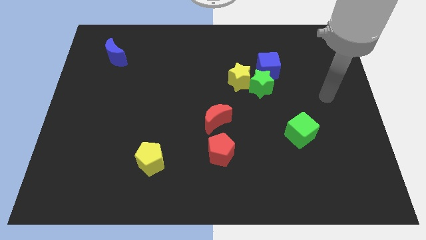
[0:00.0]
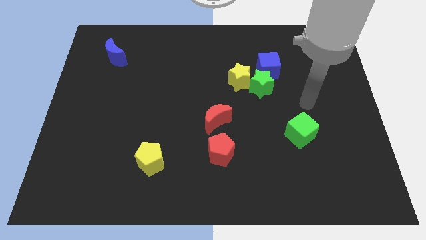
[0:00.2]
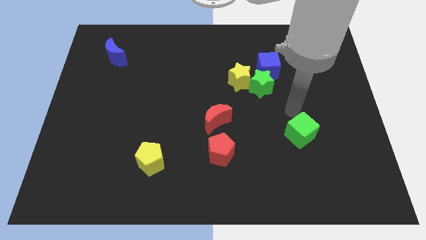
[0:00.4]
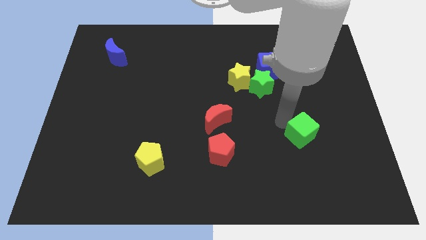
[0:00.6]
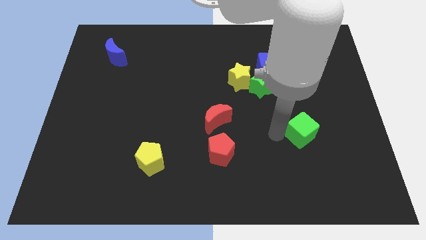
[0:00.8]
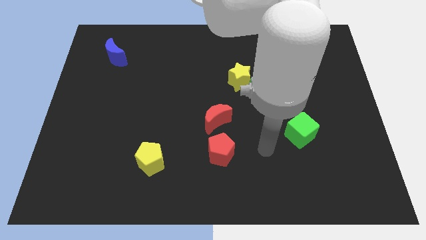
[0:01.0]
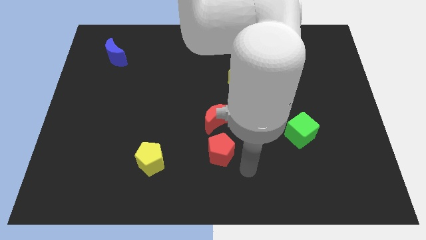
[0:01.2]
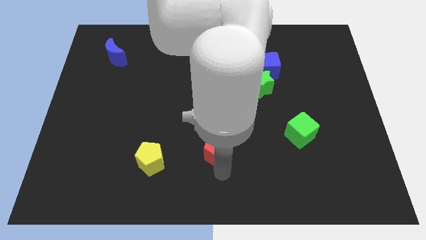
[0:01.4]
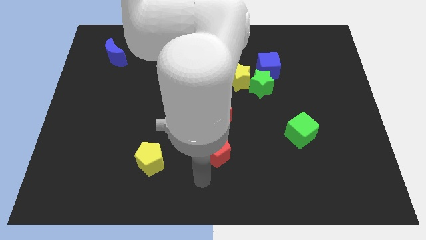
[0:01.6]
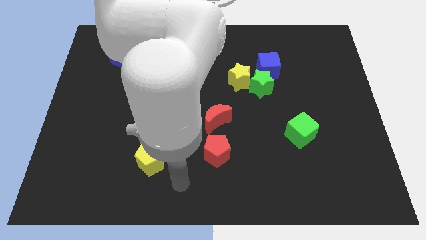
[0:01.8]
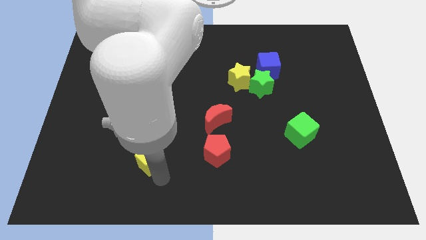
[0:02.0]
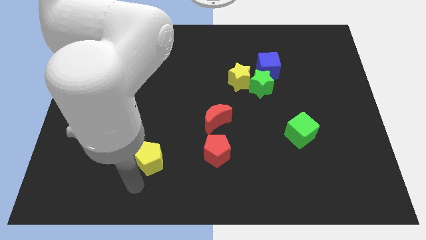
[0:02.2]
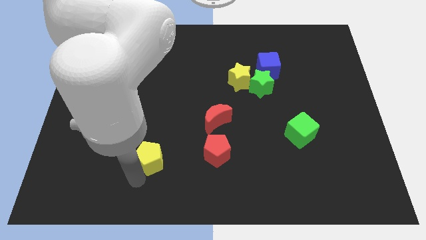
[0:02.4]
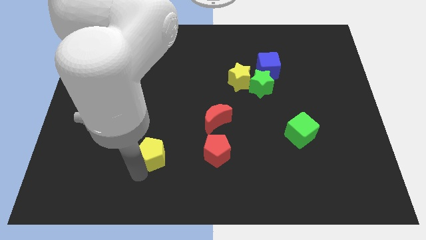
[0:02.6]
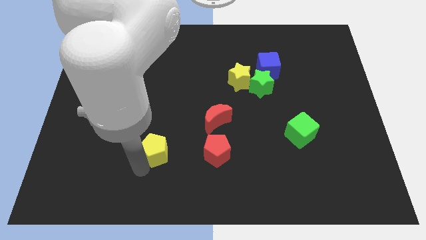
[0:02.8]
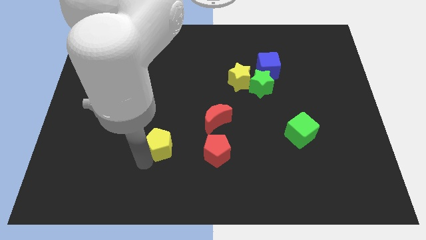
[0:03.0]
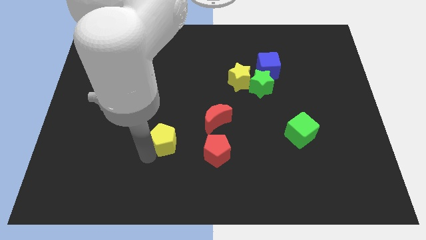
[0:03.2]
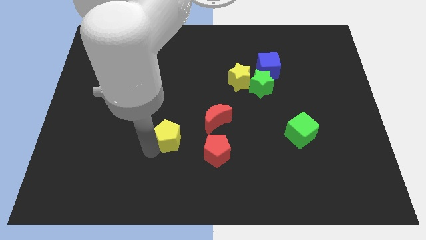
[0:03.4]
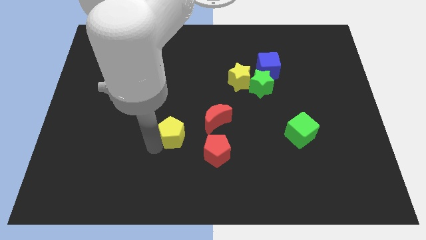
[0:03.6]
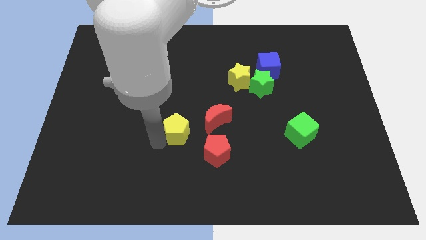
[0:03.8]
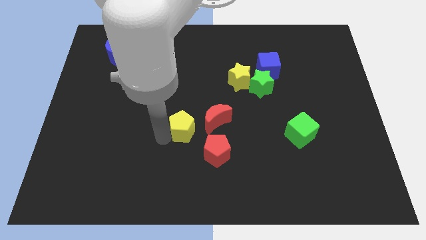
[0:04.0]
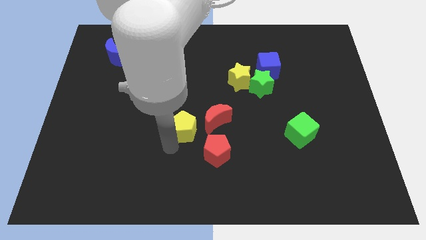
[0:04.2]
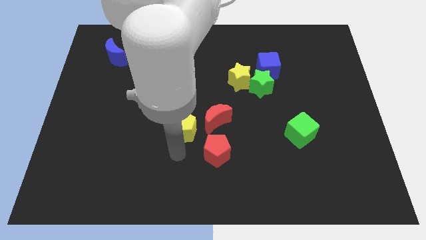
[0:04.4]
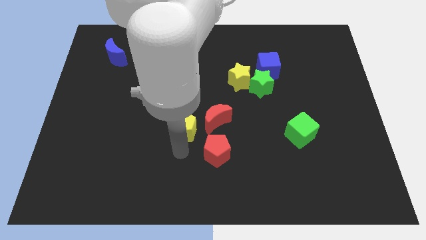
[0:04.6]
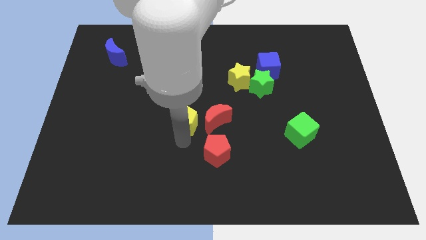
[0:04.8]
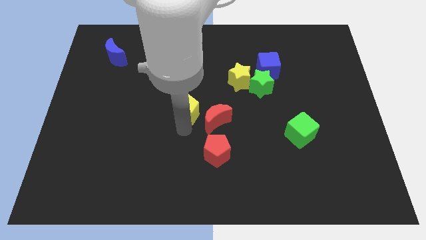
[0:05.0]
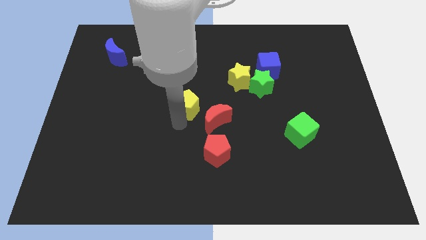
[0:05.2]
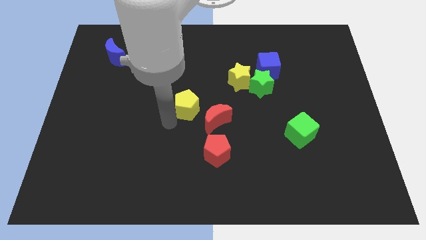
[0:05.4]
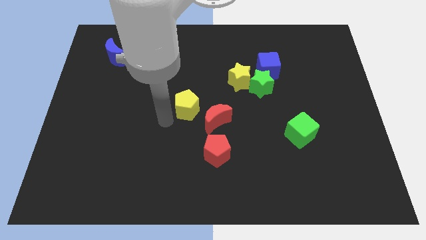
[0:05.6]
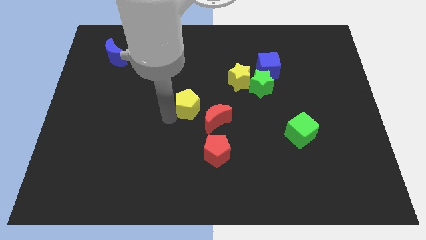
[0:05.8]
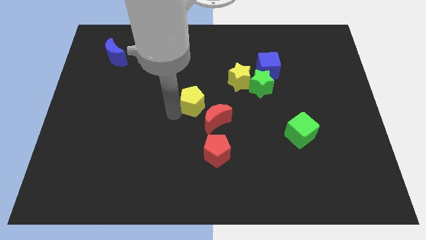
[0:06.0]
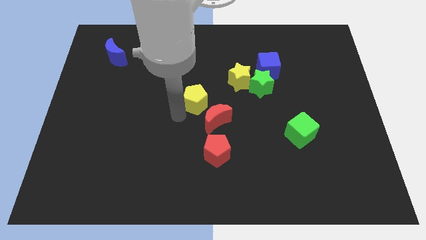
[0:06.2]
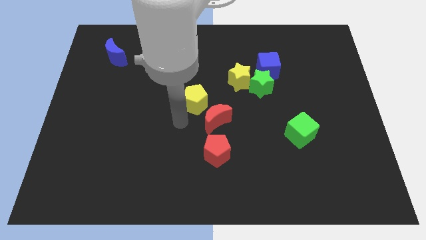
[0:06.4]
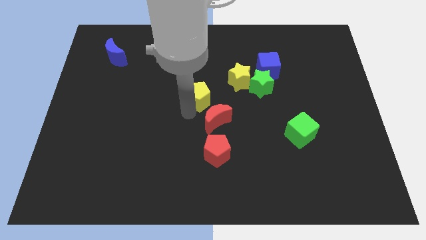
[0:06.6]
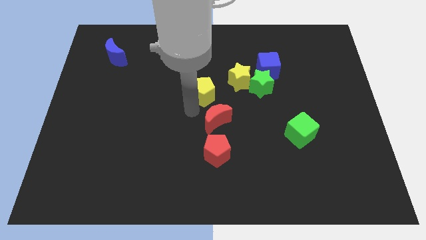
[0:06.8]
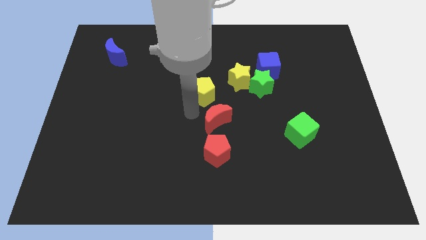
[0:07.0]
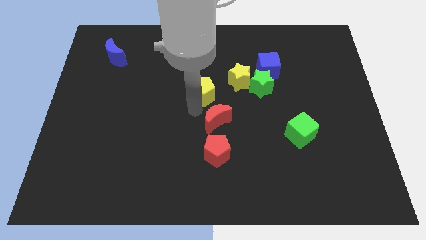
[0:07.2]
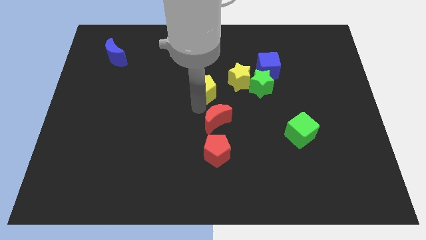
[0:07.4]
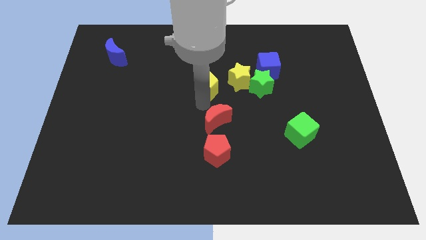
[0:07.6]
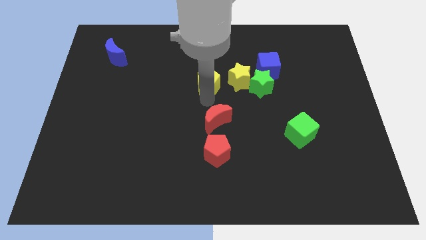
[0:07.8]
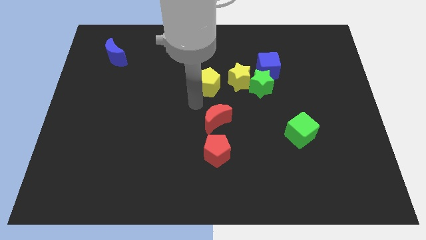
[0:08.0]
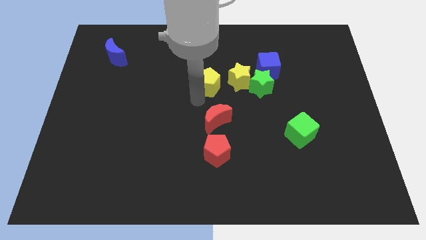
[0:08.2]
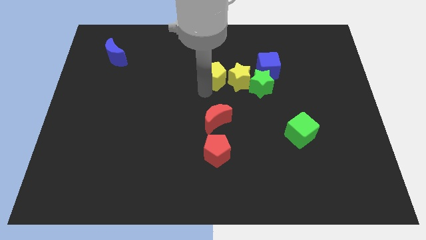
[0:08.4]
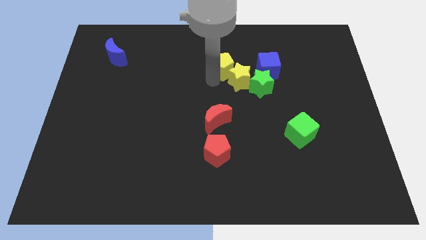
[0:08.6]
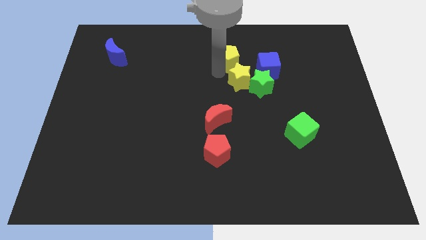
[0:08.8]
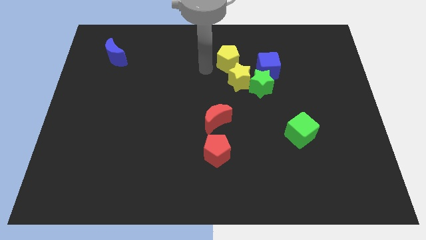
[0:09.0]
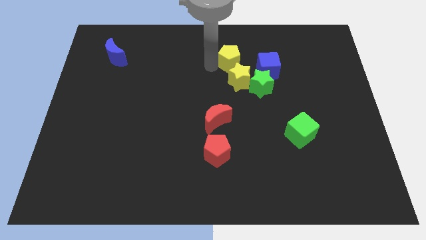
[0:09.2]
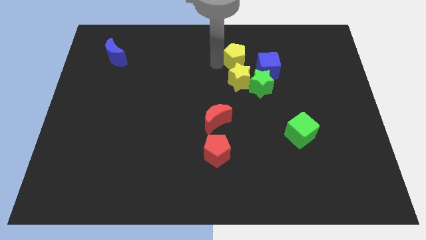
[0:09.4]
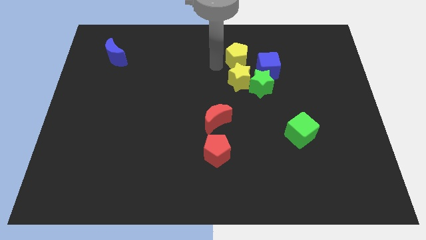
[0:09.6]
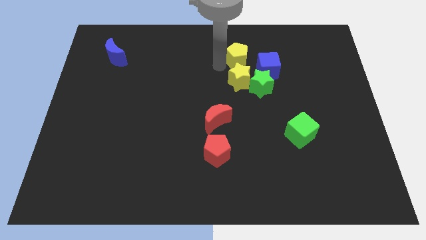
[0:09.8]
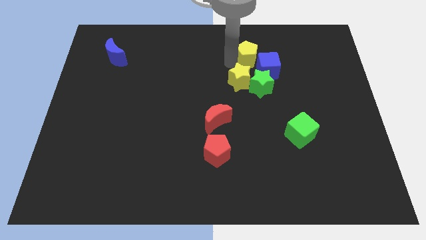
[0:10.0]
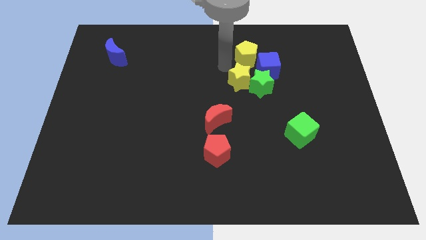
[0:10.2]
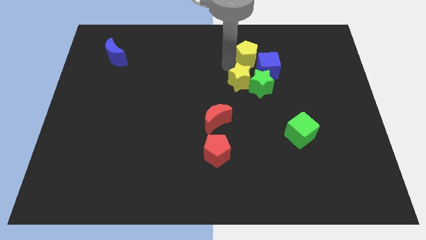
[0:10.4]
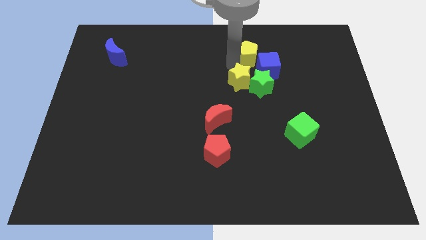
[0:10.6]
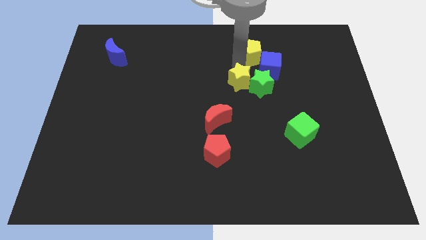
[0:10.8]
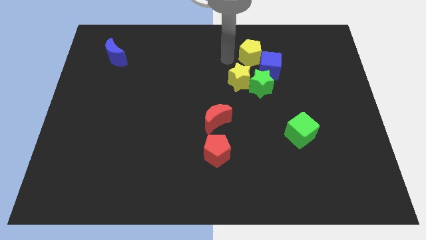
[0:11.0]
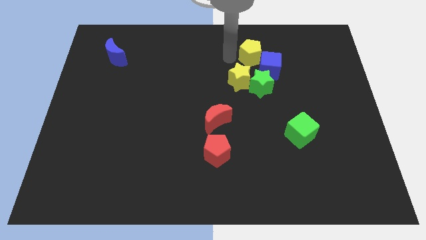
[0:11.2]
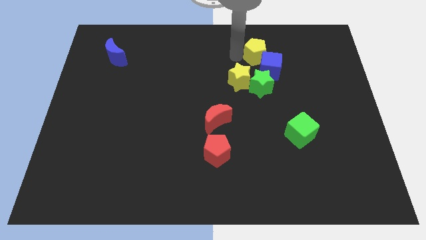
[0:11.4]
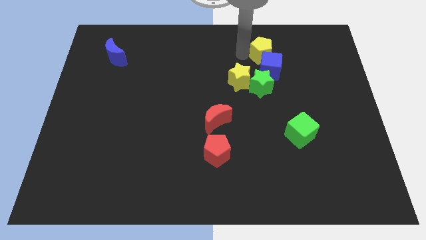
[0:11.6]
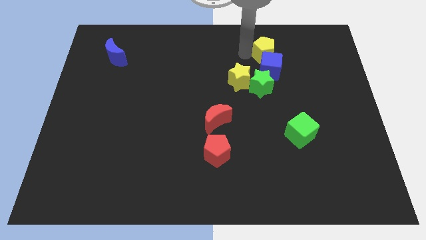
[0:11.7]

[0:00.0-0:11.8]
push the yellow pentagon to the top right of the blue cube

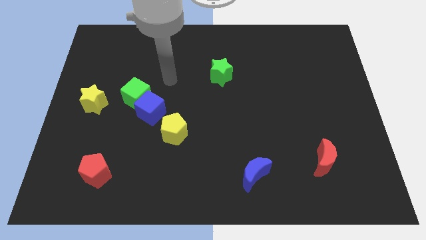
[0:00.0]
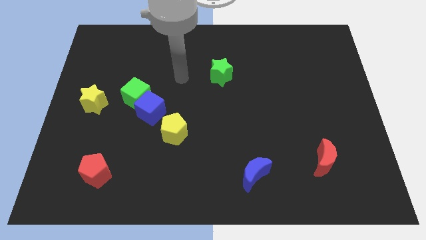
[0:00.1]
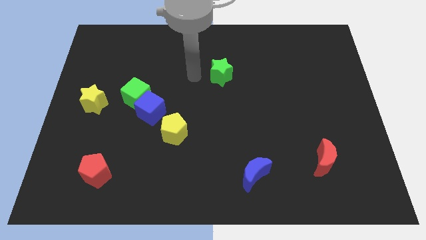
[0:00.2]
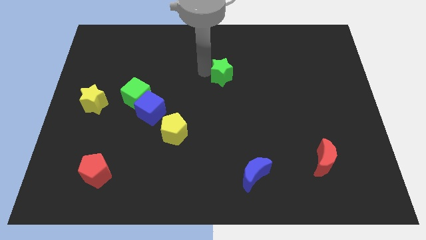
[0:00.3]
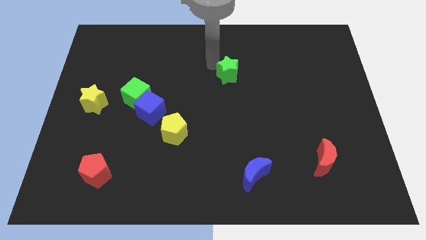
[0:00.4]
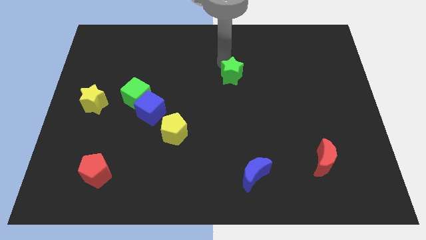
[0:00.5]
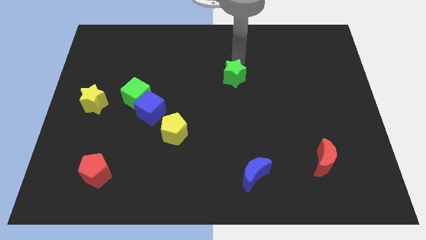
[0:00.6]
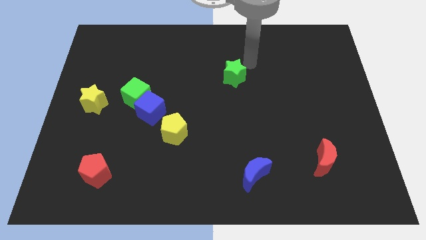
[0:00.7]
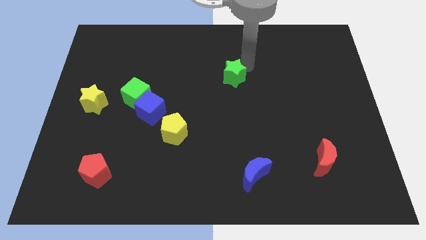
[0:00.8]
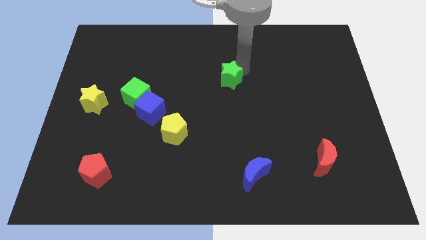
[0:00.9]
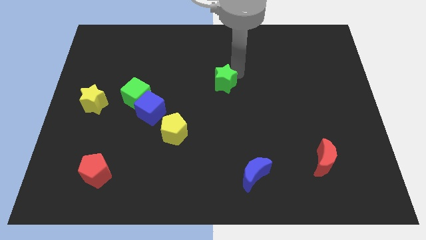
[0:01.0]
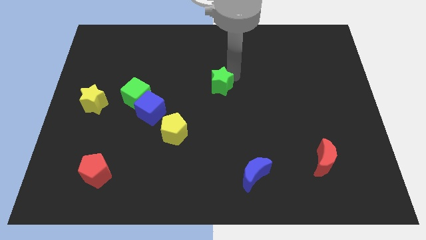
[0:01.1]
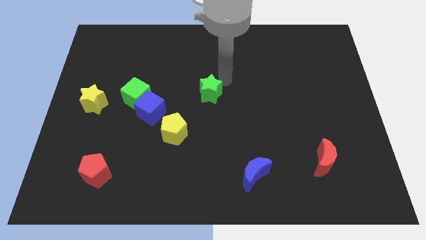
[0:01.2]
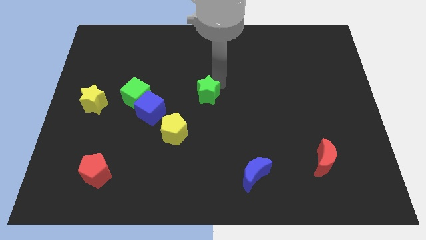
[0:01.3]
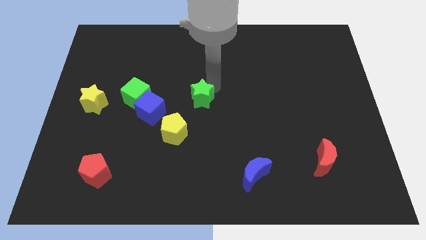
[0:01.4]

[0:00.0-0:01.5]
push the green star to the top right of the yellow pentagon
